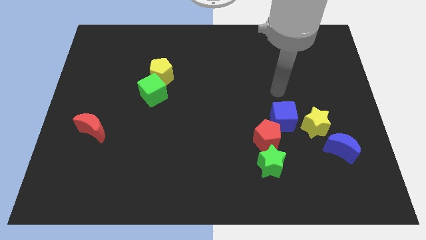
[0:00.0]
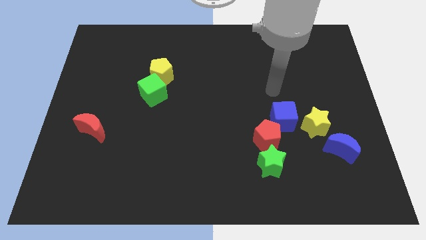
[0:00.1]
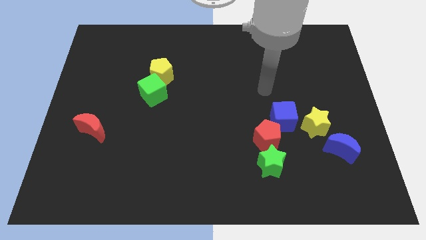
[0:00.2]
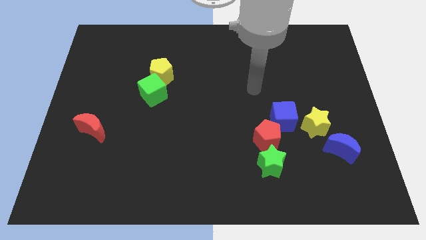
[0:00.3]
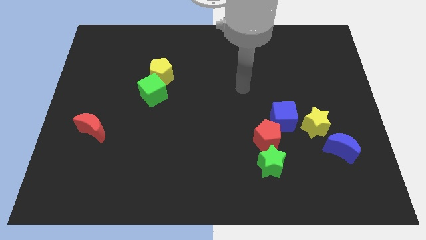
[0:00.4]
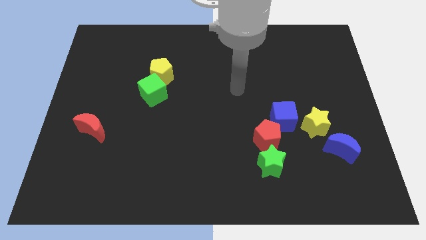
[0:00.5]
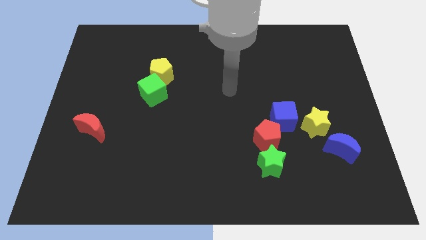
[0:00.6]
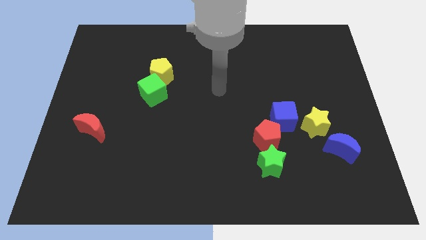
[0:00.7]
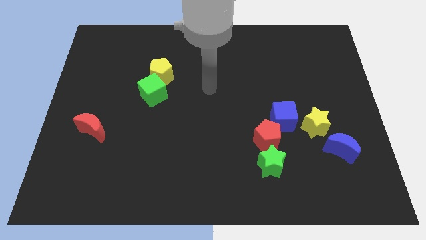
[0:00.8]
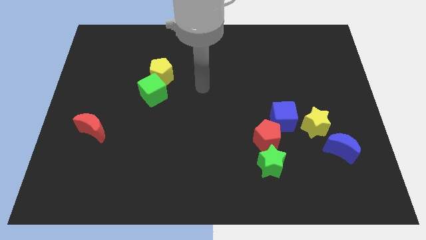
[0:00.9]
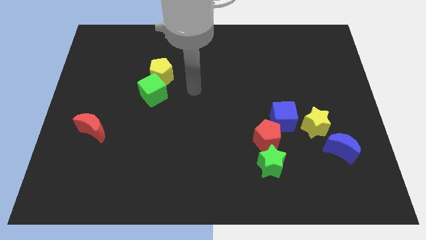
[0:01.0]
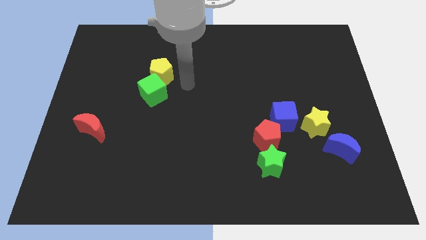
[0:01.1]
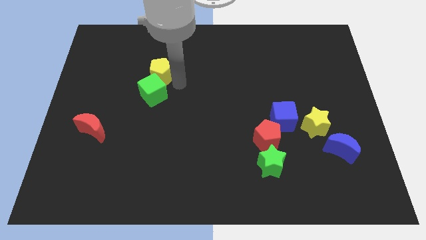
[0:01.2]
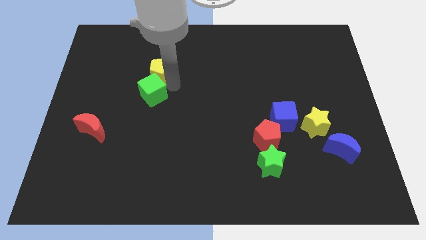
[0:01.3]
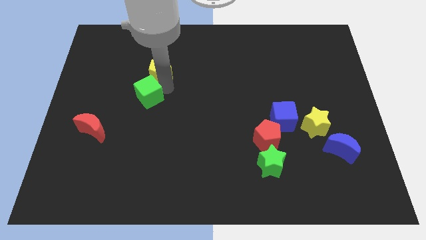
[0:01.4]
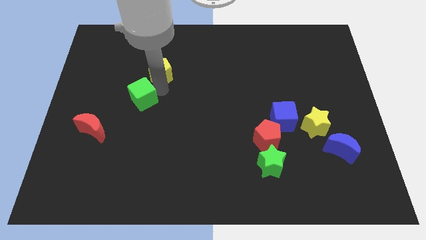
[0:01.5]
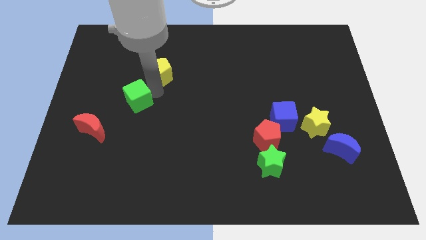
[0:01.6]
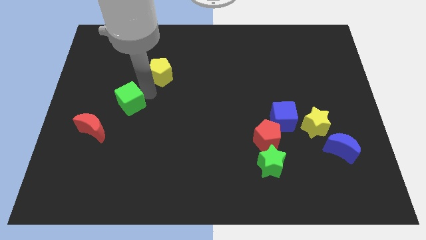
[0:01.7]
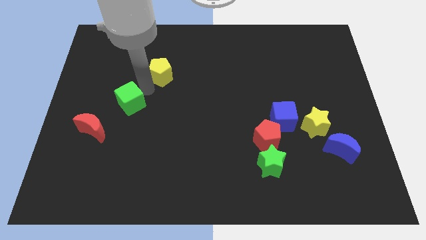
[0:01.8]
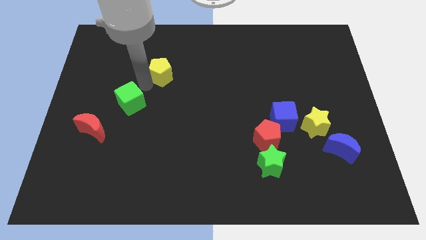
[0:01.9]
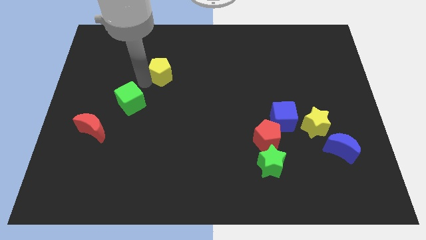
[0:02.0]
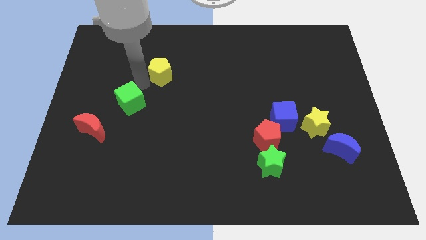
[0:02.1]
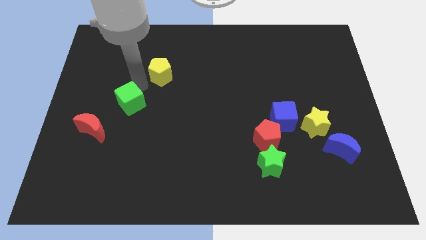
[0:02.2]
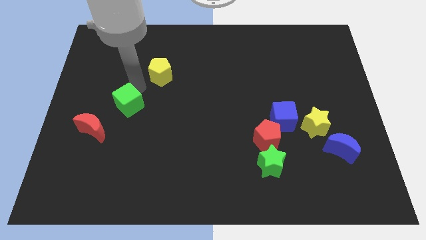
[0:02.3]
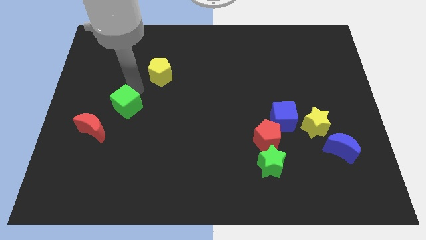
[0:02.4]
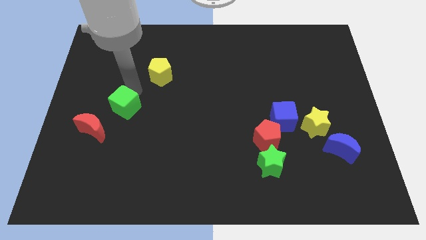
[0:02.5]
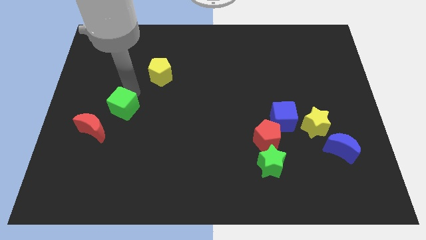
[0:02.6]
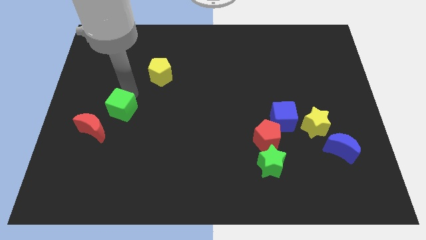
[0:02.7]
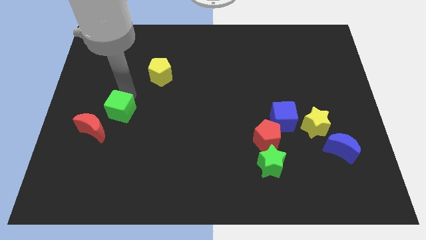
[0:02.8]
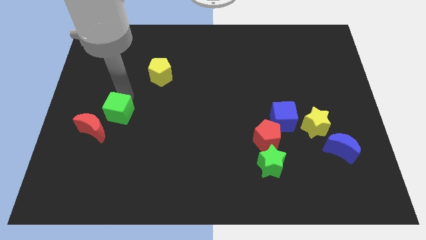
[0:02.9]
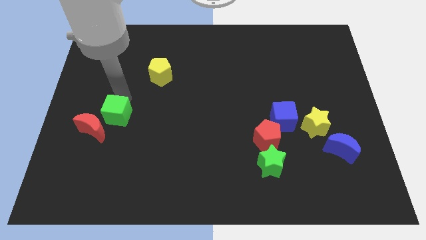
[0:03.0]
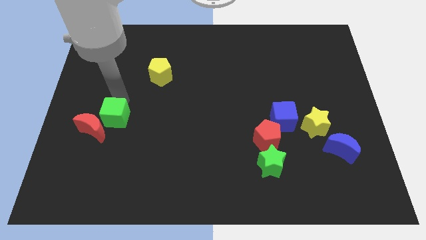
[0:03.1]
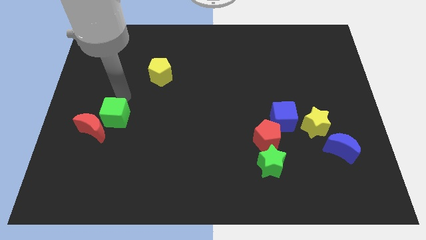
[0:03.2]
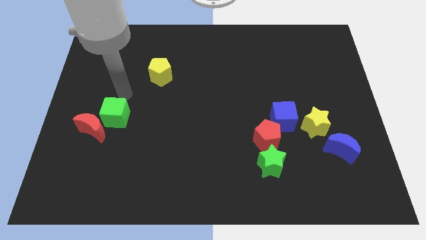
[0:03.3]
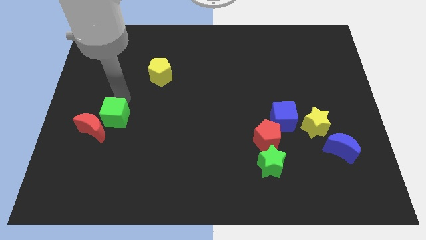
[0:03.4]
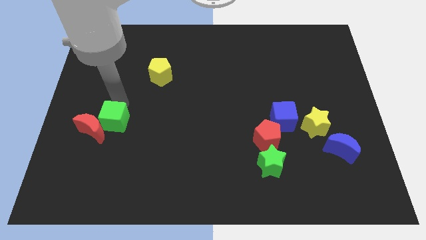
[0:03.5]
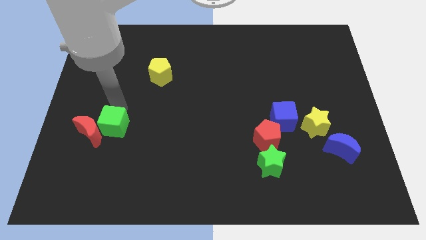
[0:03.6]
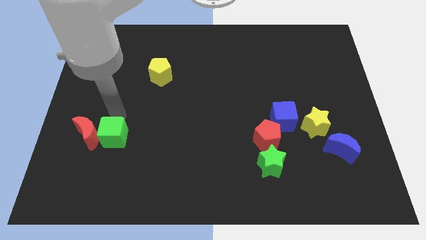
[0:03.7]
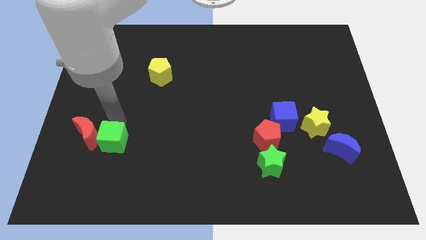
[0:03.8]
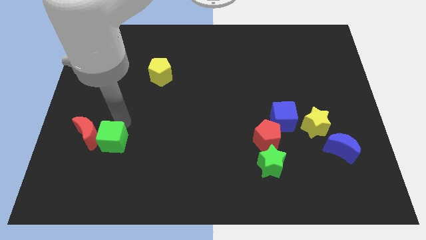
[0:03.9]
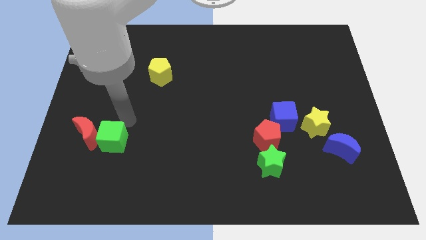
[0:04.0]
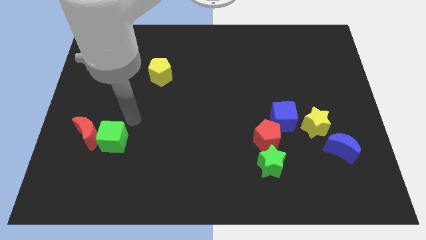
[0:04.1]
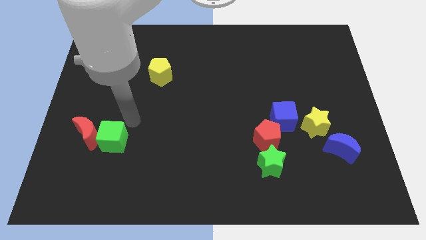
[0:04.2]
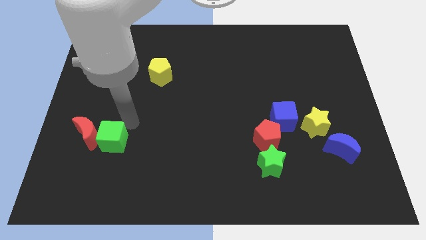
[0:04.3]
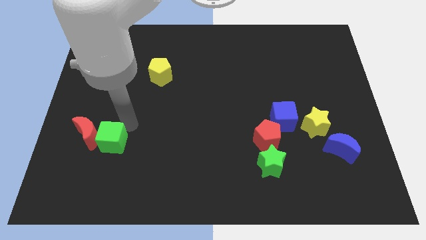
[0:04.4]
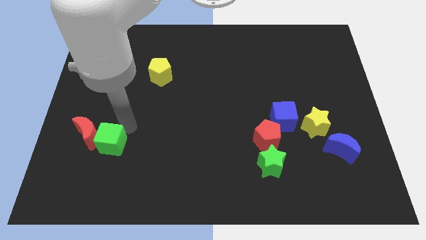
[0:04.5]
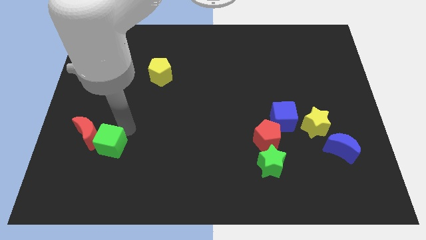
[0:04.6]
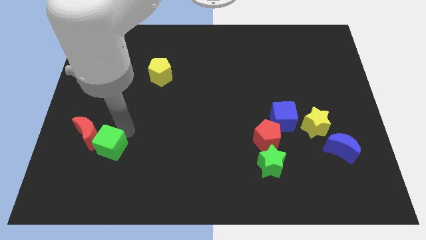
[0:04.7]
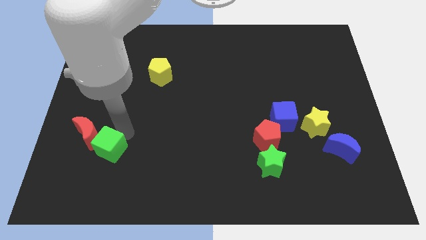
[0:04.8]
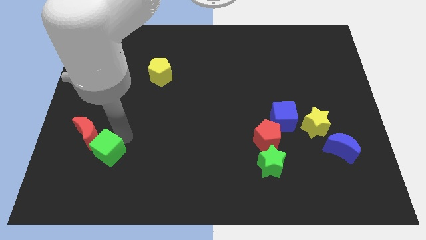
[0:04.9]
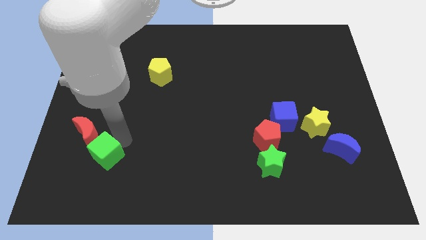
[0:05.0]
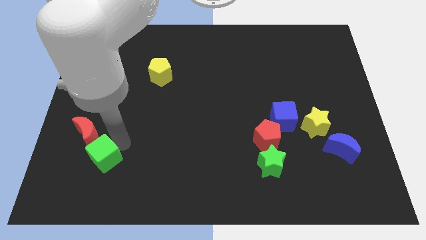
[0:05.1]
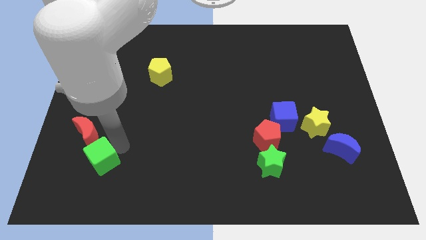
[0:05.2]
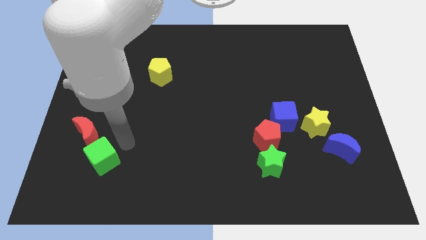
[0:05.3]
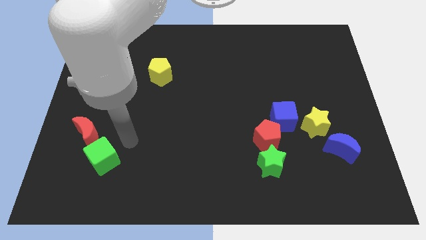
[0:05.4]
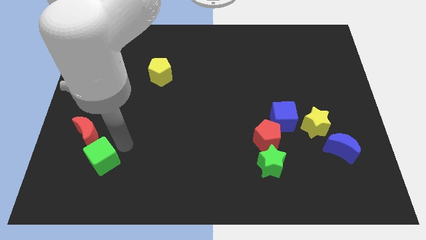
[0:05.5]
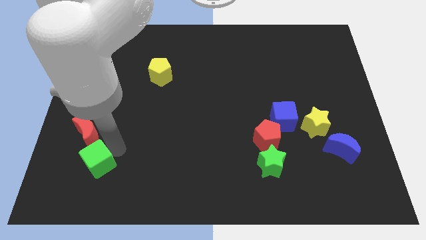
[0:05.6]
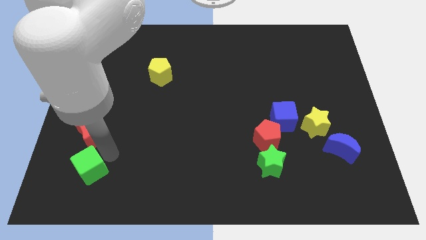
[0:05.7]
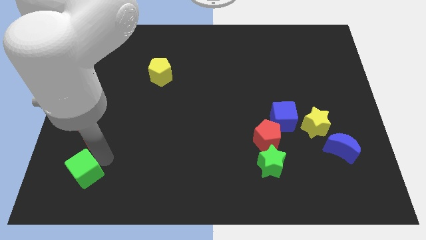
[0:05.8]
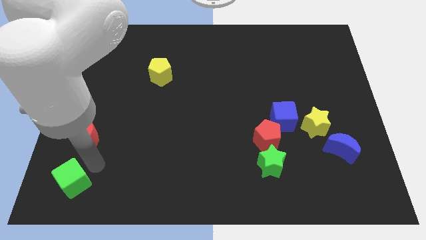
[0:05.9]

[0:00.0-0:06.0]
put the green cube to the bottom left corner
